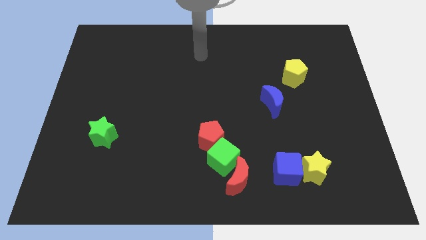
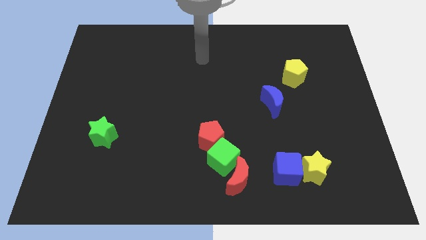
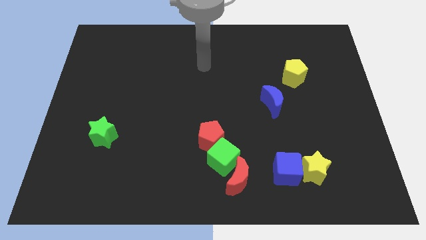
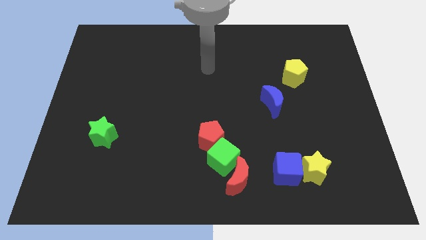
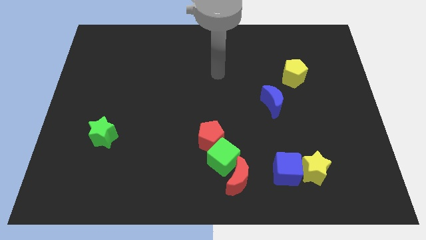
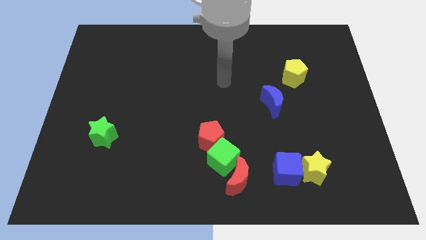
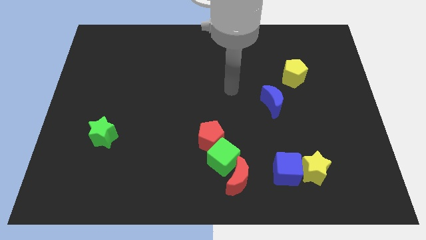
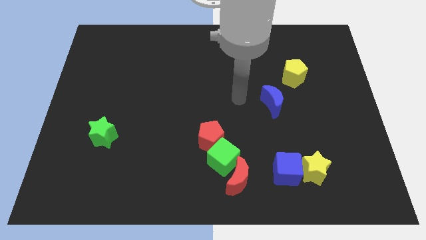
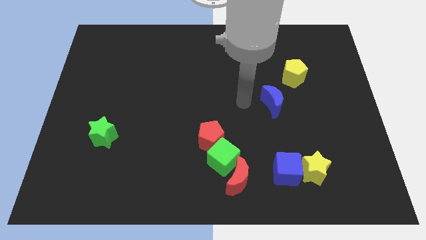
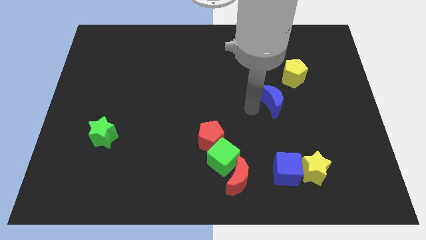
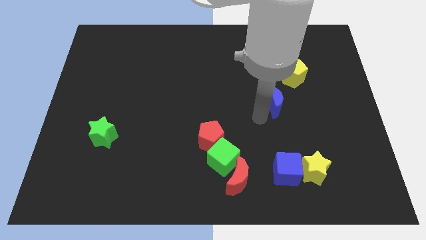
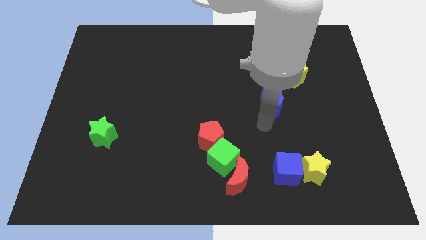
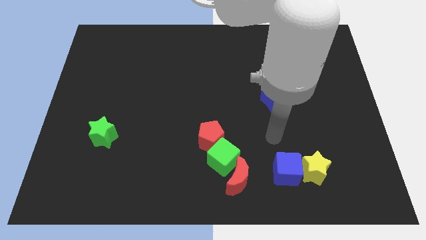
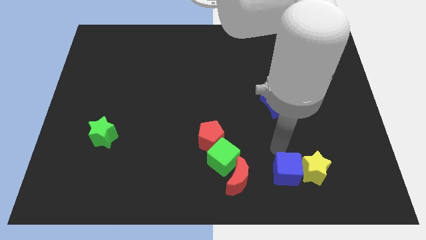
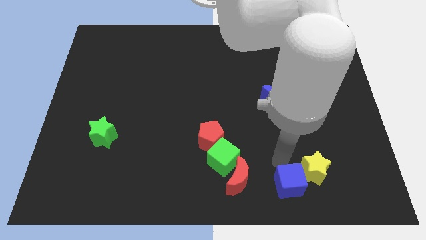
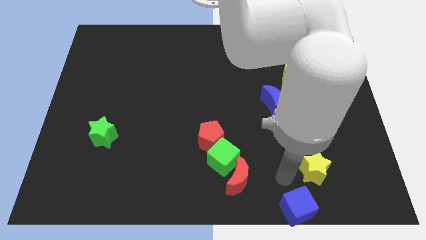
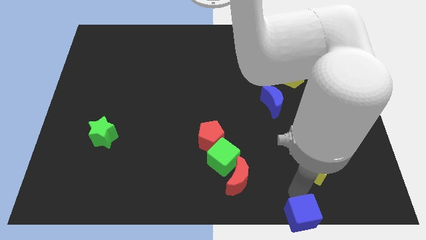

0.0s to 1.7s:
pull the yellow star apart from the blue cube

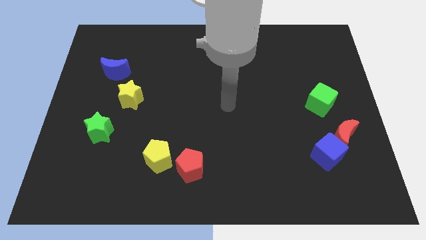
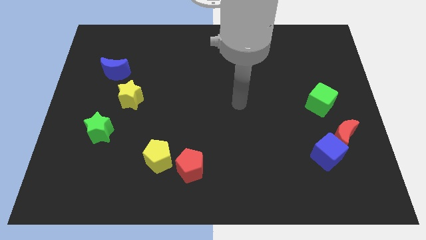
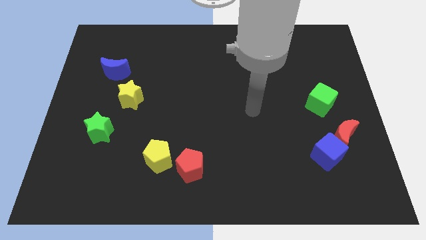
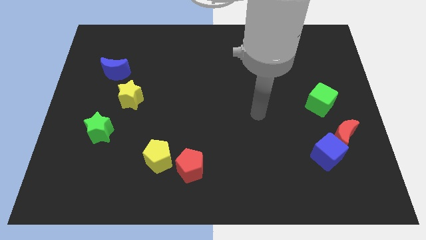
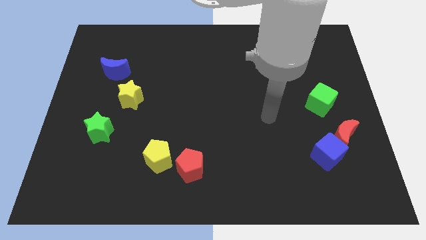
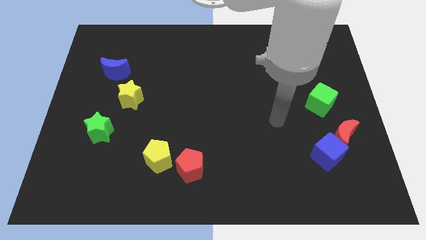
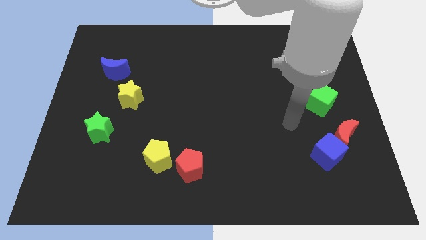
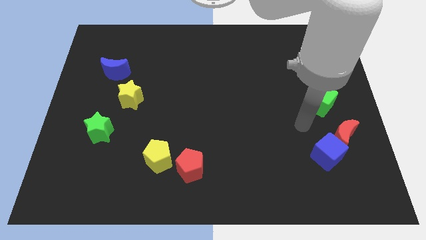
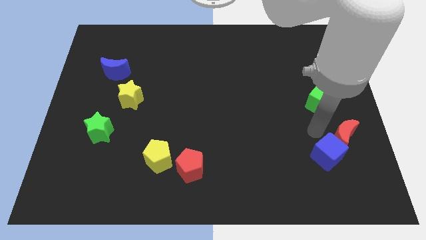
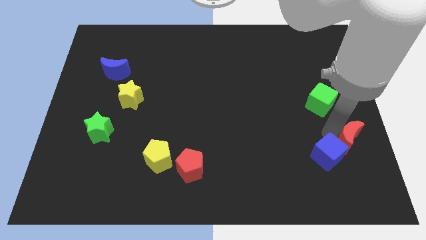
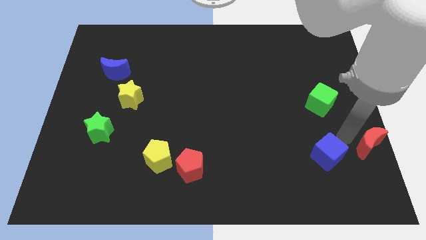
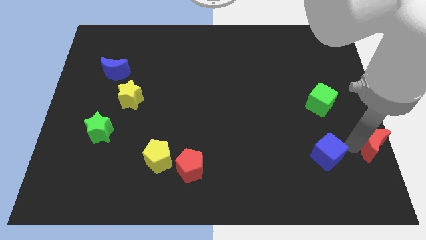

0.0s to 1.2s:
separate the blue cube from the red moon

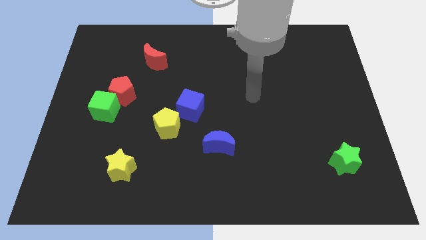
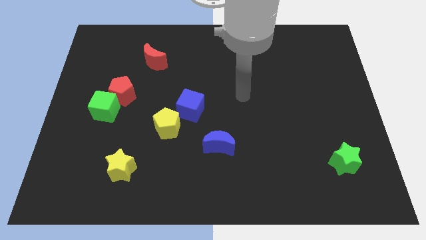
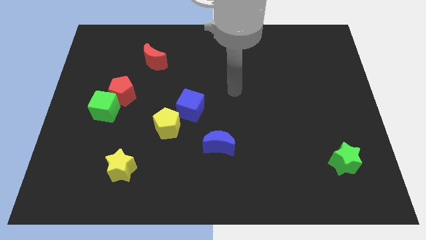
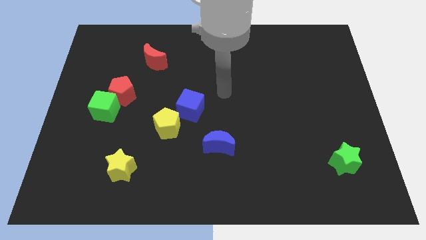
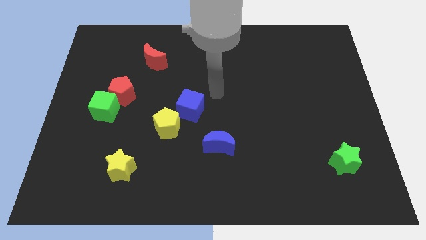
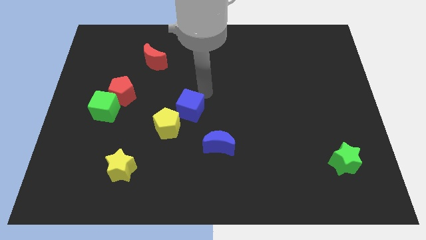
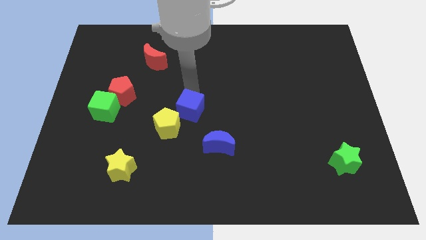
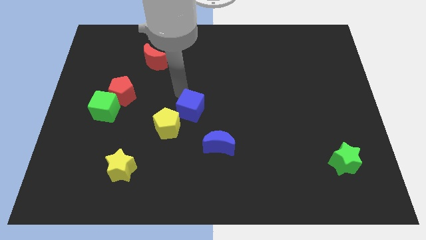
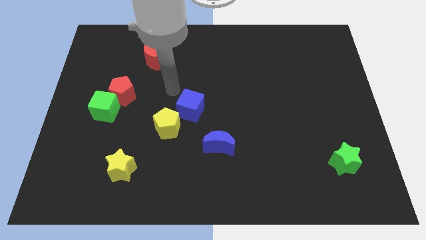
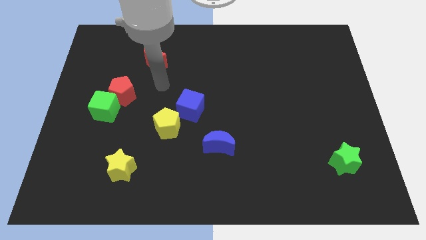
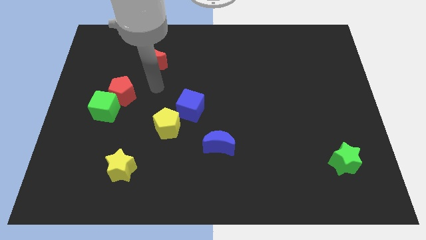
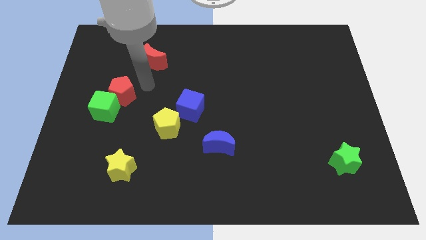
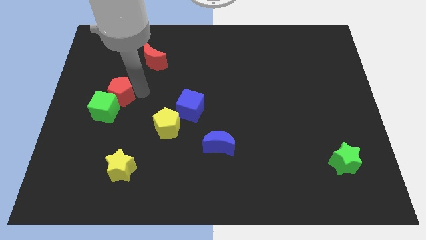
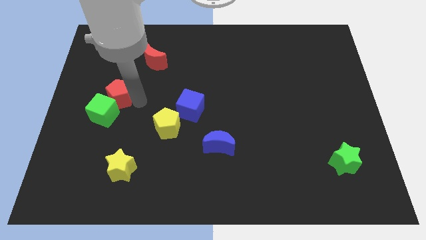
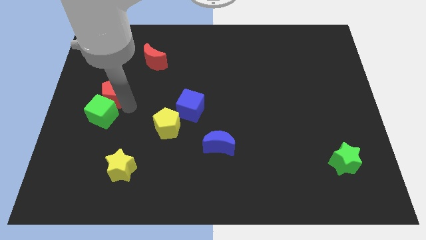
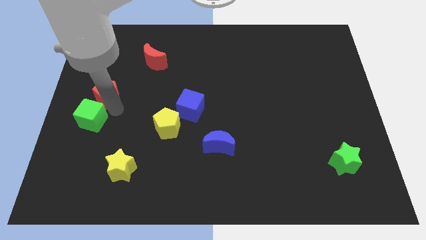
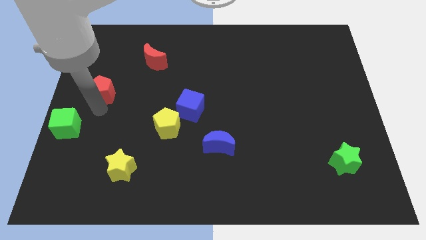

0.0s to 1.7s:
move the red pentagon away from the green cube

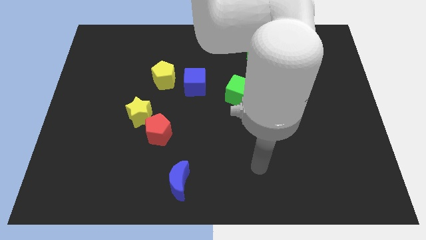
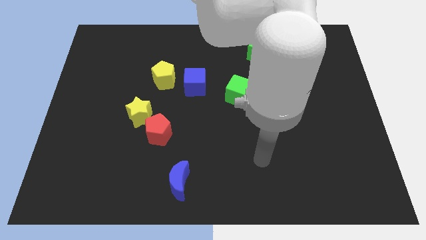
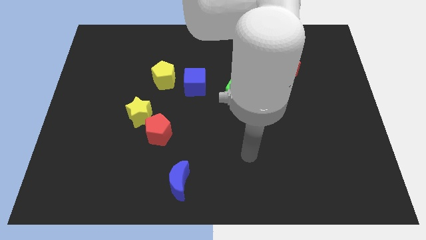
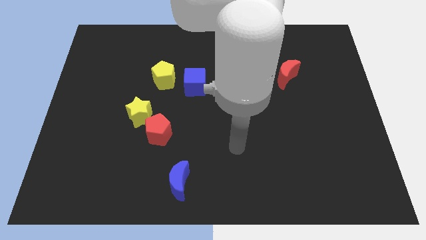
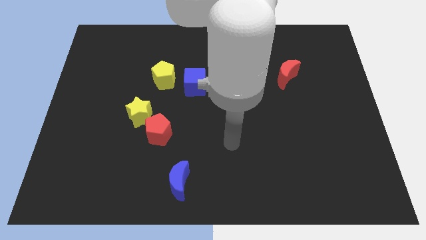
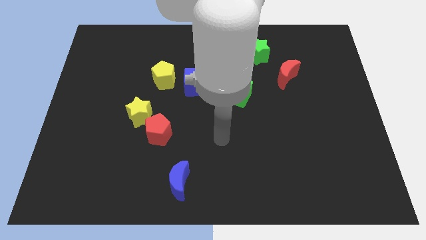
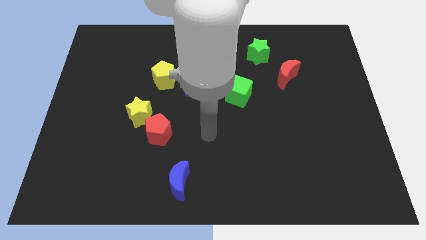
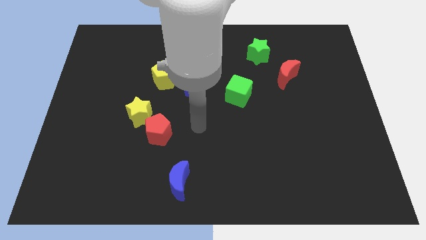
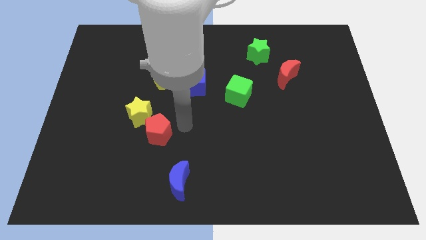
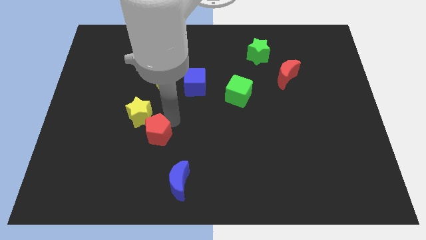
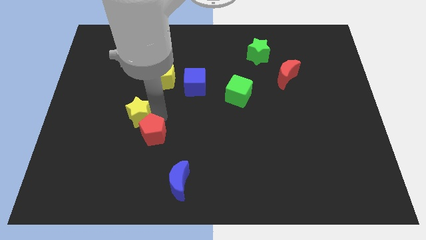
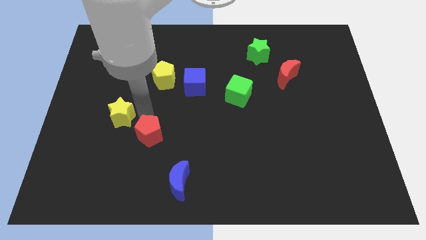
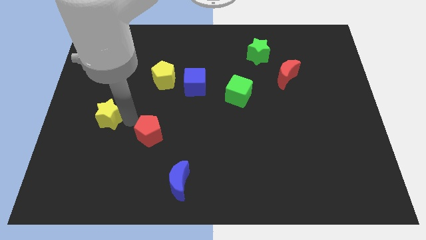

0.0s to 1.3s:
move the red pentagon away from the yellow star

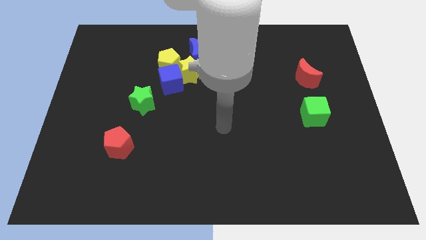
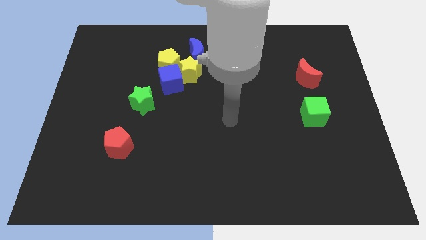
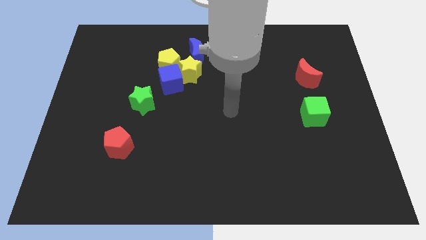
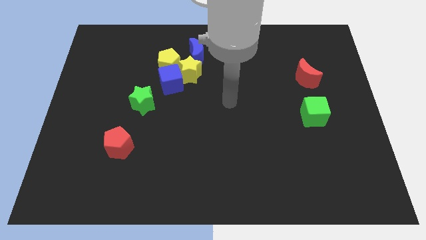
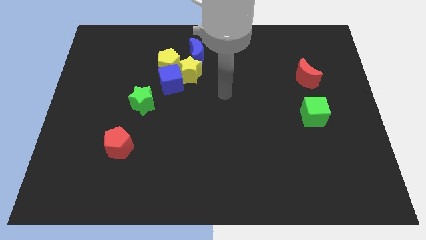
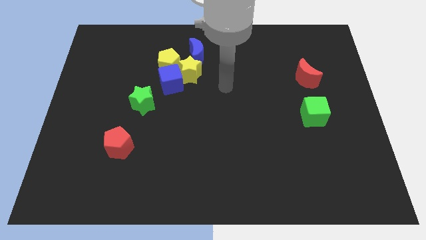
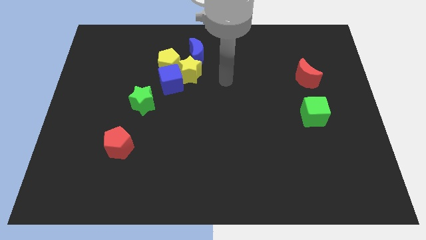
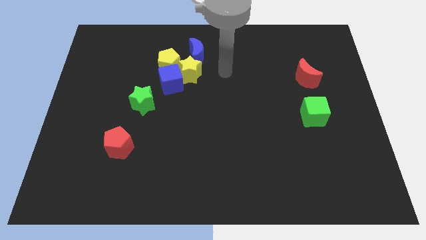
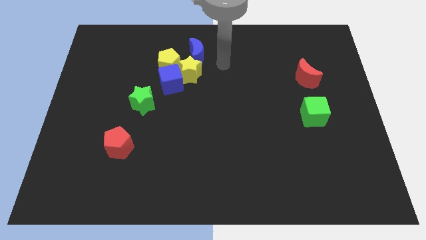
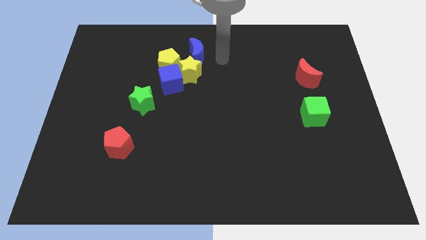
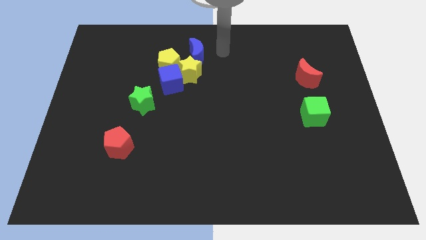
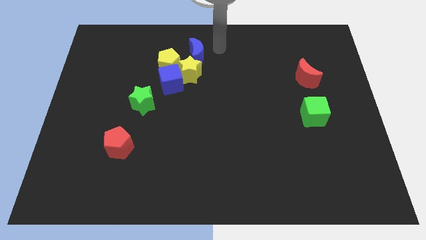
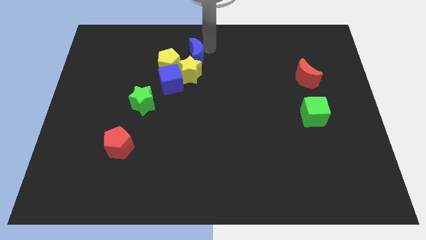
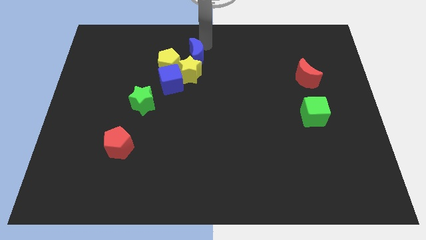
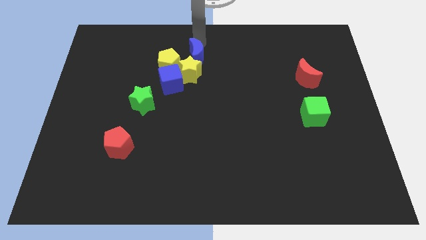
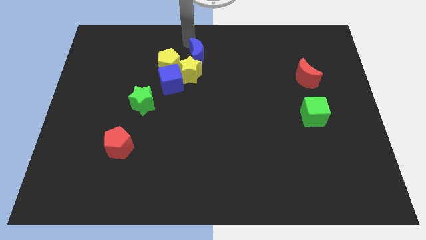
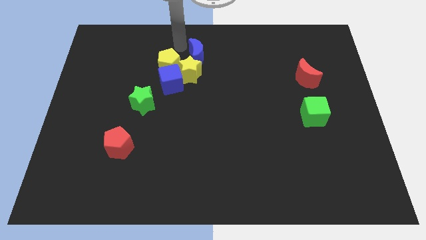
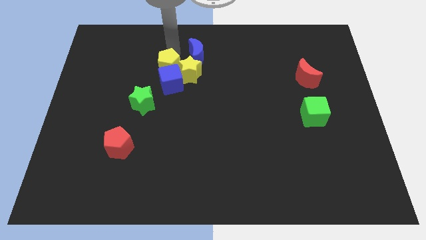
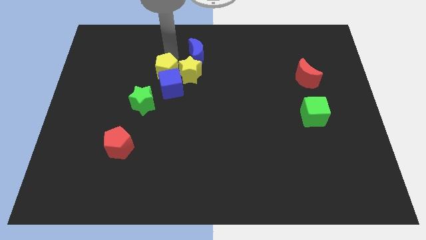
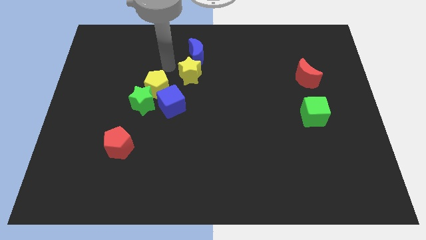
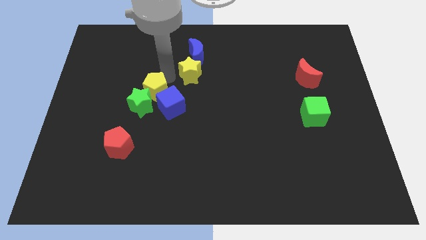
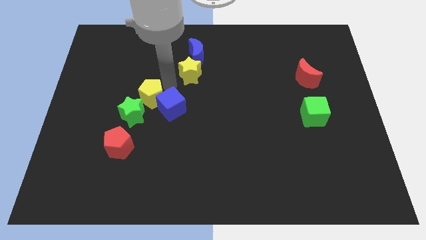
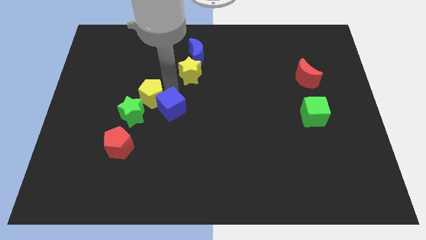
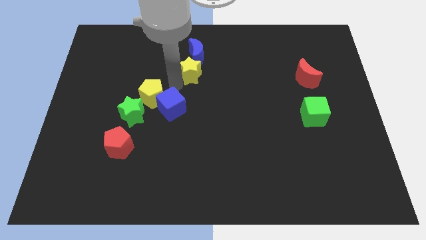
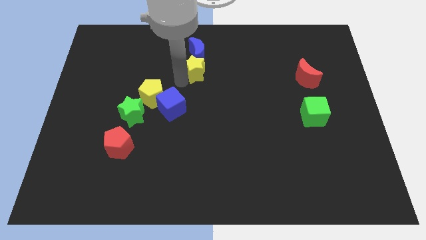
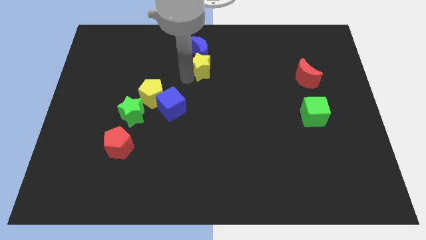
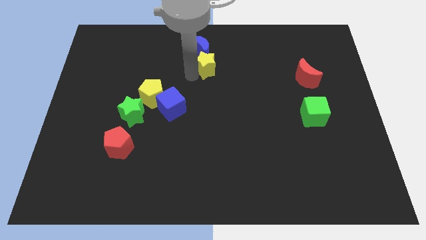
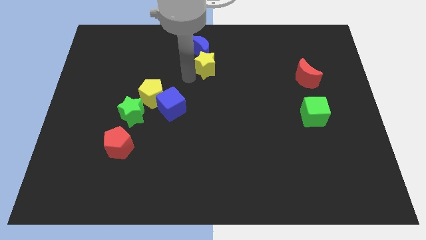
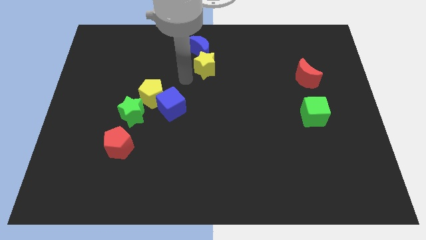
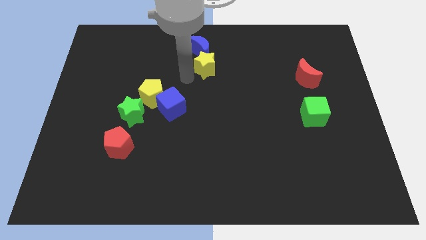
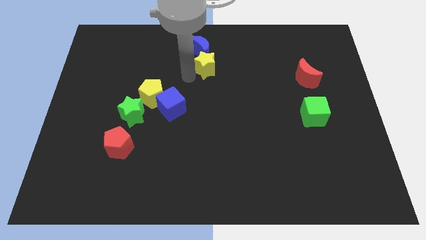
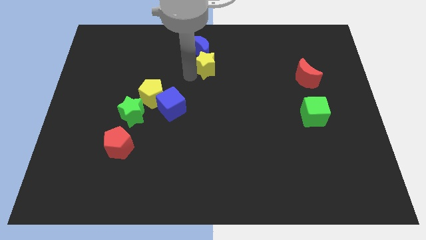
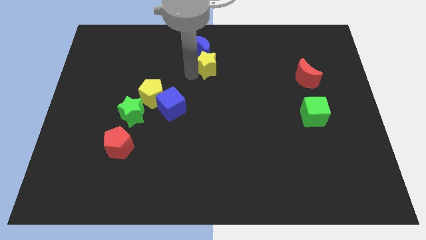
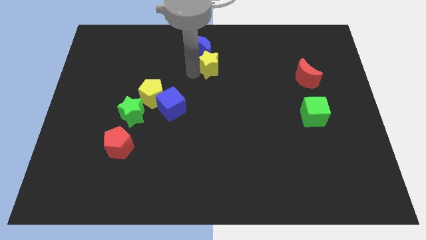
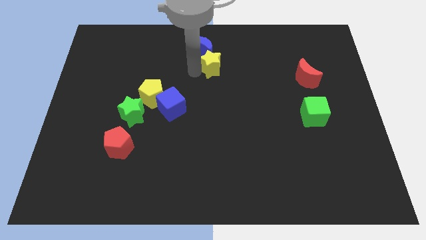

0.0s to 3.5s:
move the yellow star away from the blue cube, yellow pentagon, and blue moon
